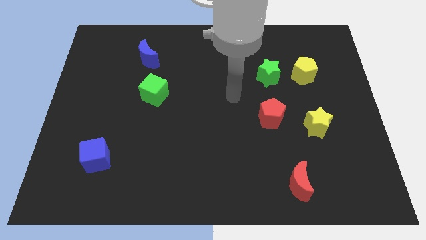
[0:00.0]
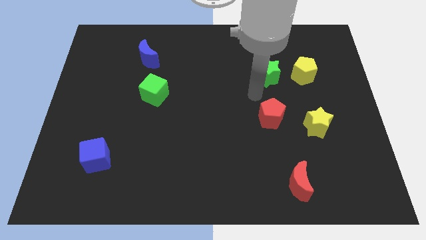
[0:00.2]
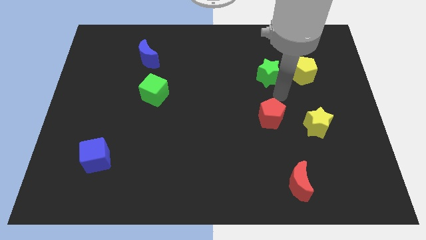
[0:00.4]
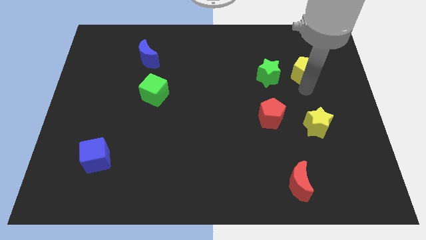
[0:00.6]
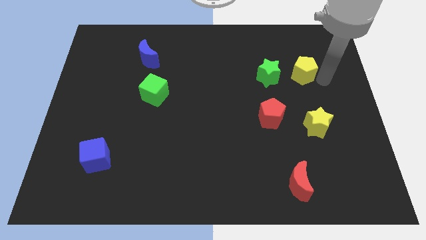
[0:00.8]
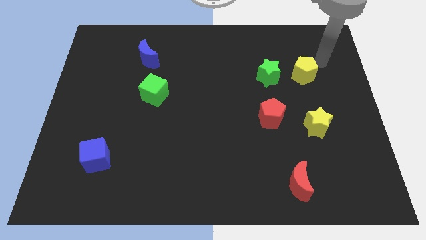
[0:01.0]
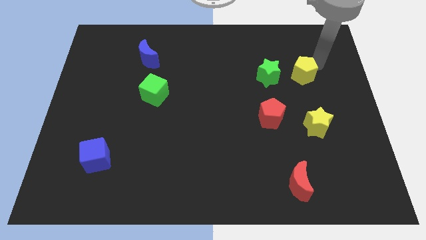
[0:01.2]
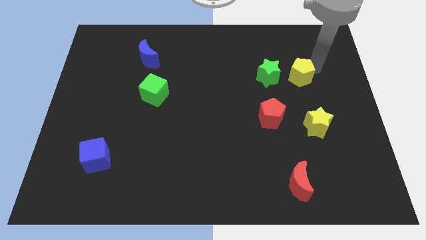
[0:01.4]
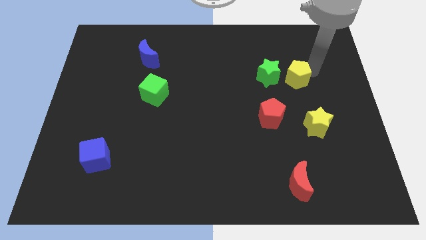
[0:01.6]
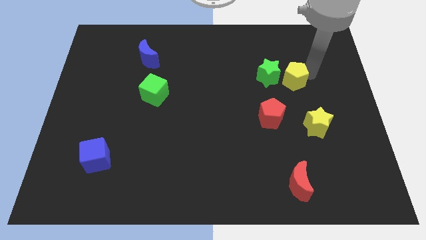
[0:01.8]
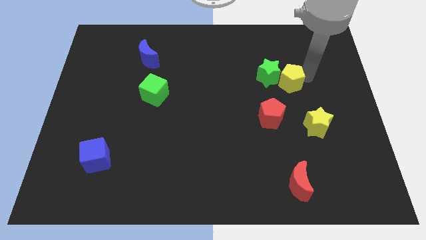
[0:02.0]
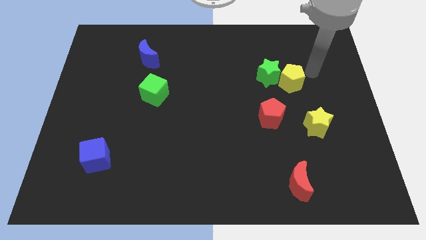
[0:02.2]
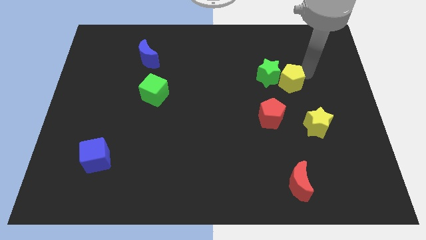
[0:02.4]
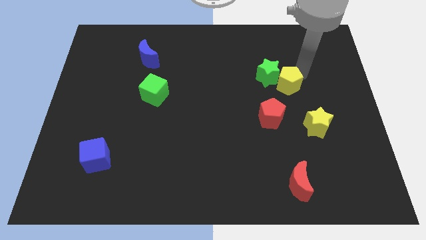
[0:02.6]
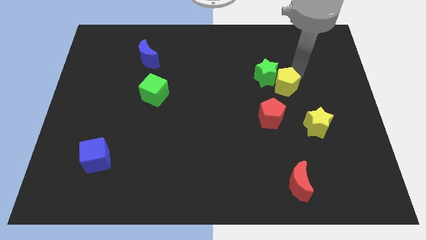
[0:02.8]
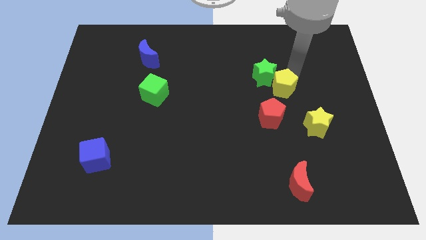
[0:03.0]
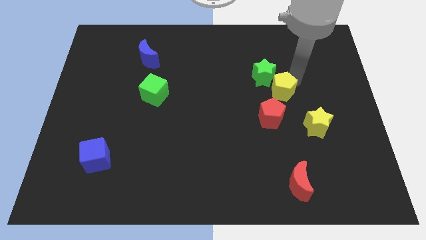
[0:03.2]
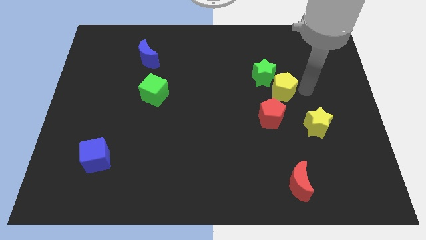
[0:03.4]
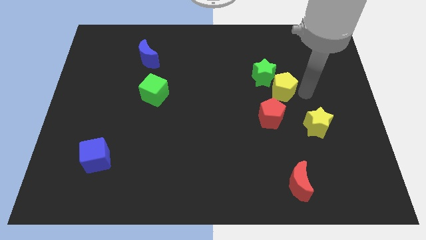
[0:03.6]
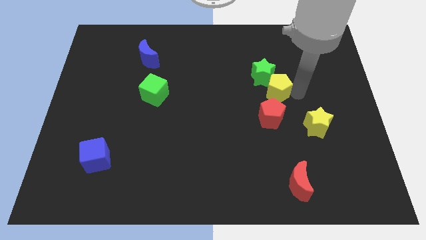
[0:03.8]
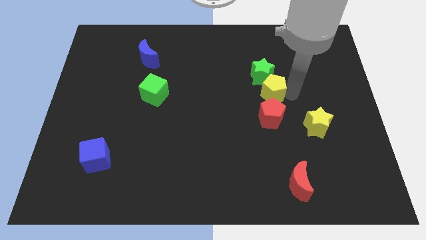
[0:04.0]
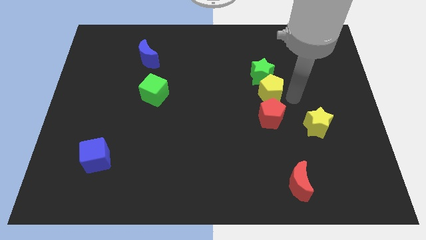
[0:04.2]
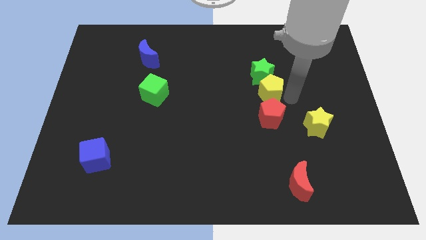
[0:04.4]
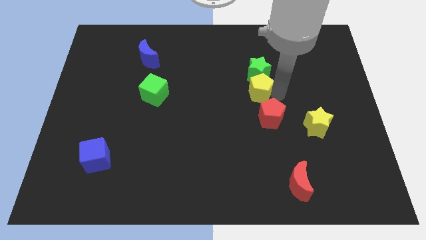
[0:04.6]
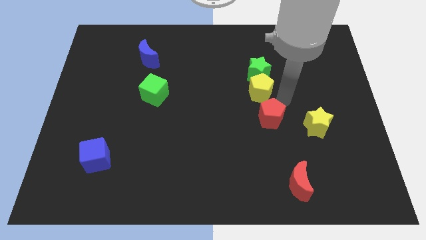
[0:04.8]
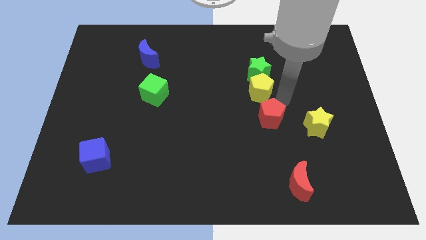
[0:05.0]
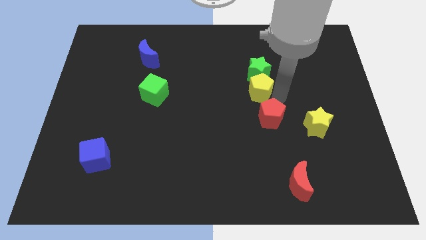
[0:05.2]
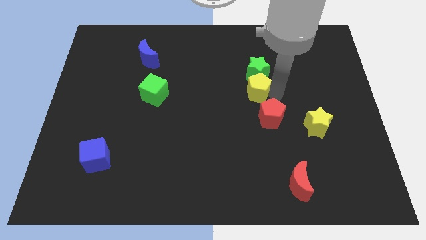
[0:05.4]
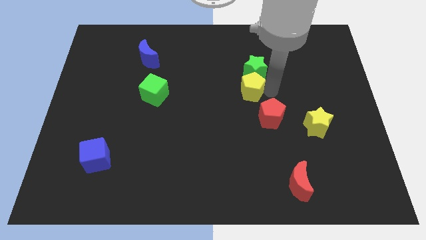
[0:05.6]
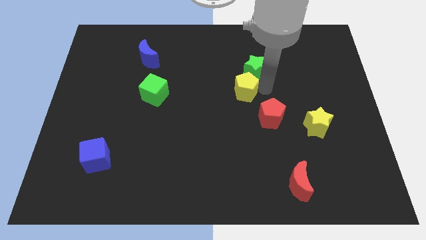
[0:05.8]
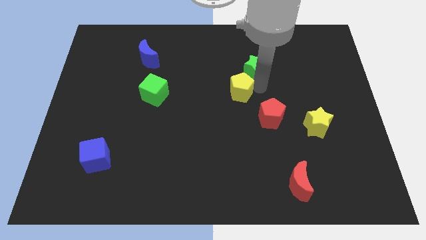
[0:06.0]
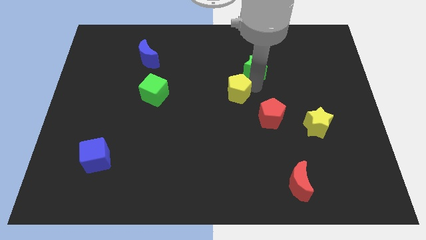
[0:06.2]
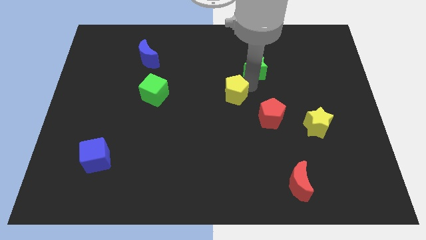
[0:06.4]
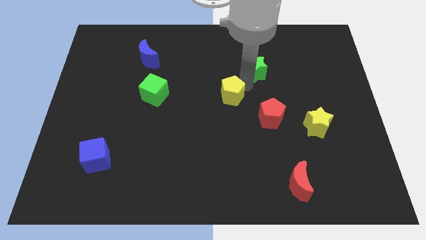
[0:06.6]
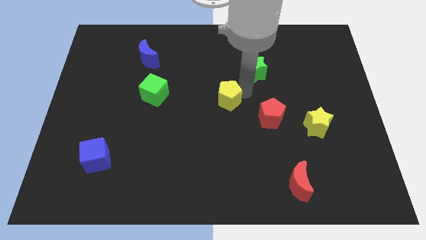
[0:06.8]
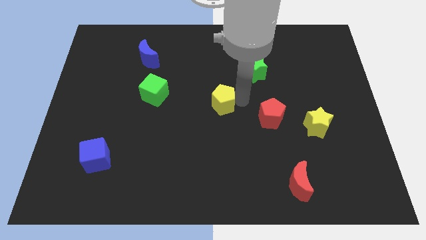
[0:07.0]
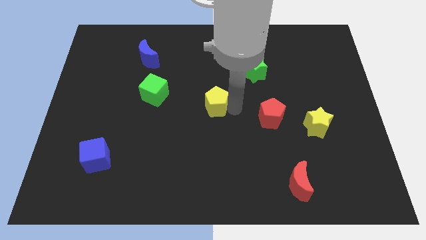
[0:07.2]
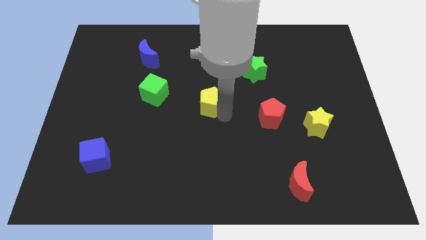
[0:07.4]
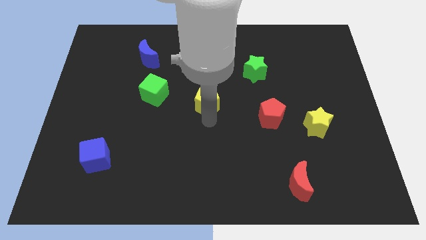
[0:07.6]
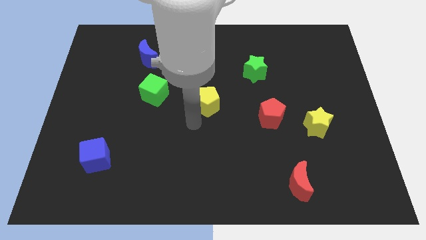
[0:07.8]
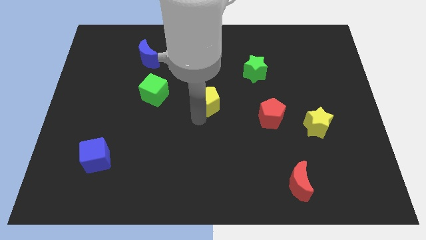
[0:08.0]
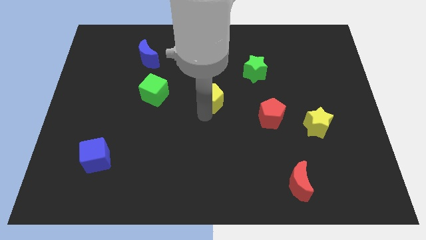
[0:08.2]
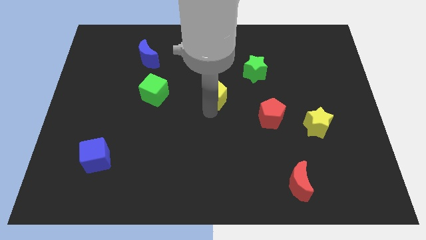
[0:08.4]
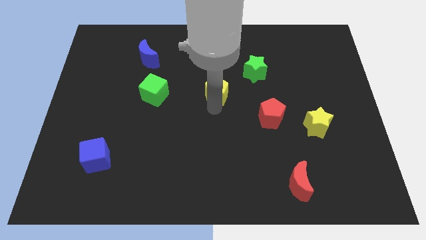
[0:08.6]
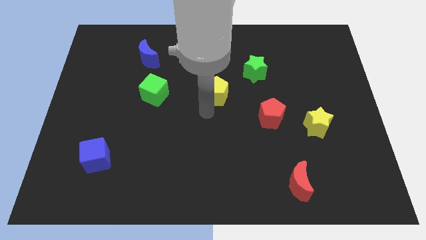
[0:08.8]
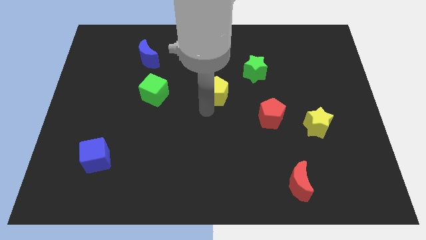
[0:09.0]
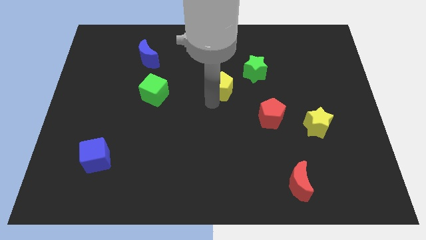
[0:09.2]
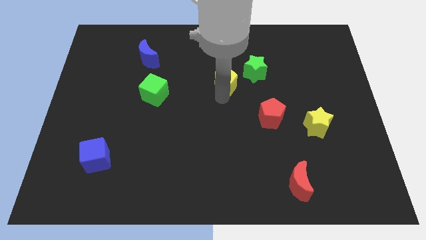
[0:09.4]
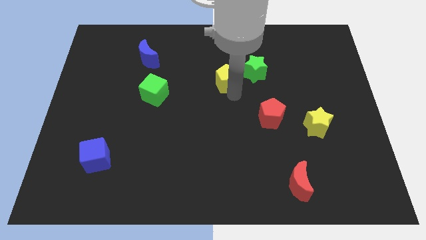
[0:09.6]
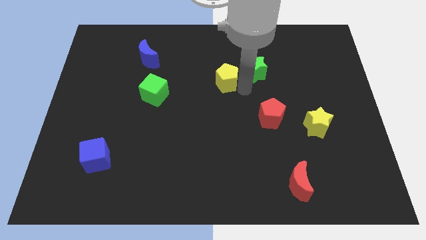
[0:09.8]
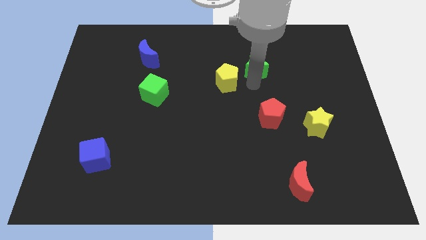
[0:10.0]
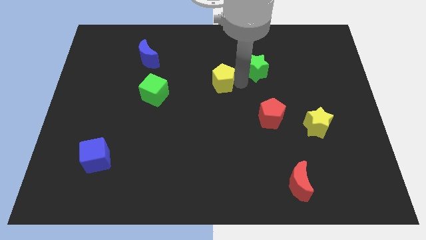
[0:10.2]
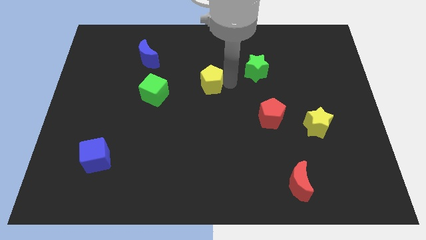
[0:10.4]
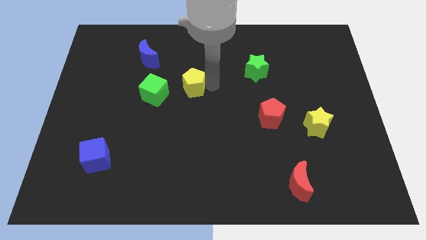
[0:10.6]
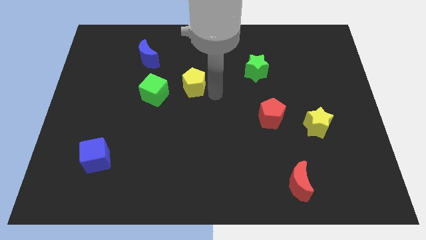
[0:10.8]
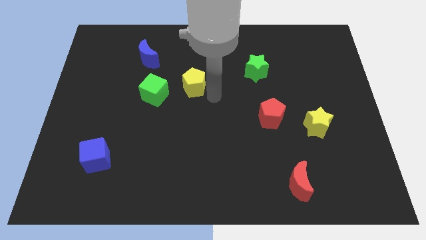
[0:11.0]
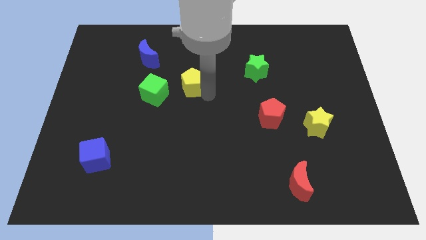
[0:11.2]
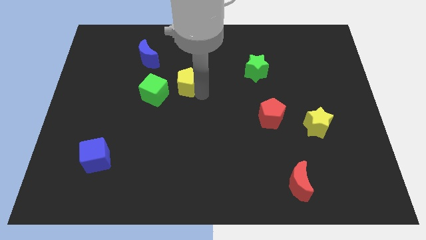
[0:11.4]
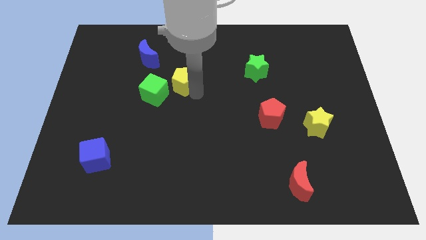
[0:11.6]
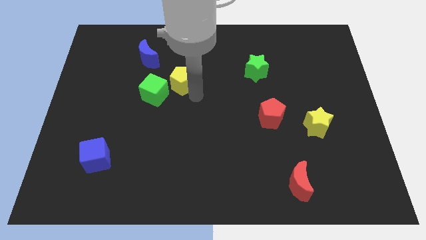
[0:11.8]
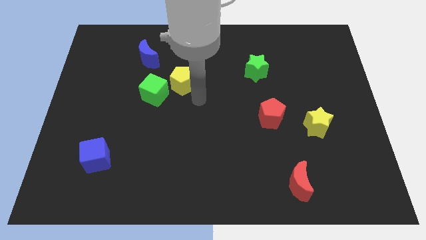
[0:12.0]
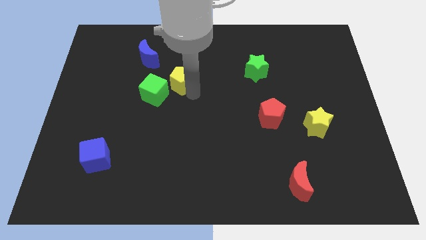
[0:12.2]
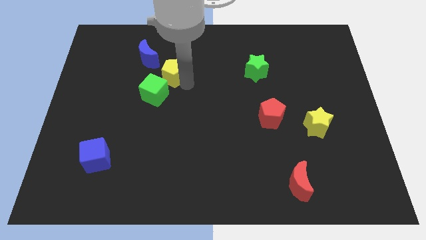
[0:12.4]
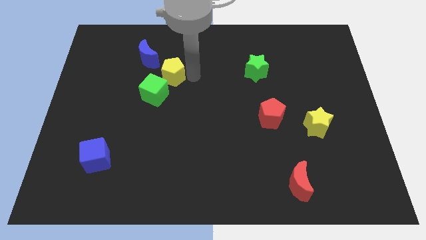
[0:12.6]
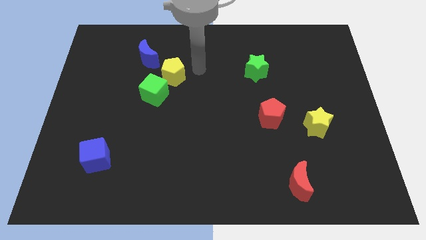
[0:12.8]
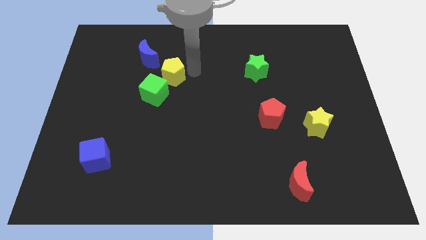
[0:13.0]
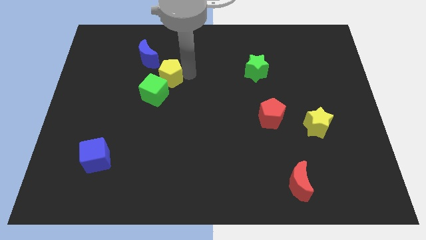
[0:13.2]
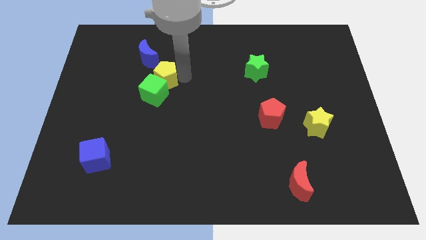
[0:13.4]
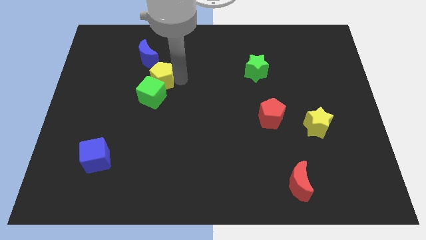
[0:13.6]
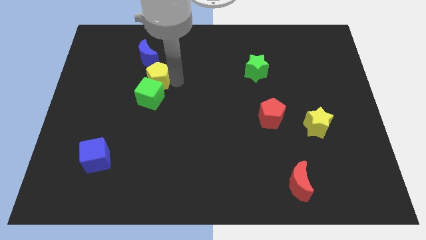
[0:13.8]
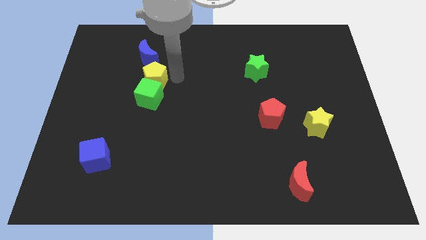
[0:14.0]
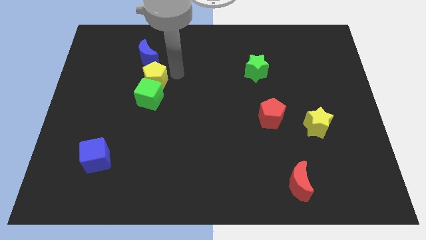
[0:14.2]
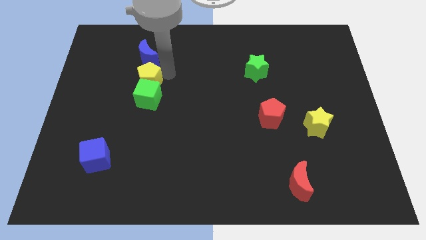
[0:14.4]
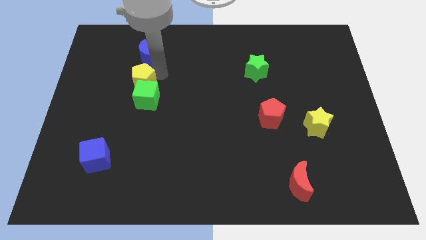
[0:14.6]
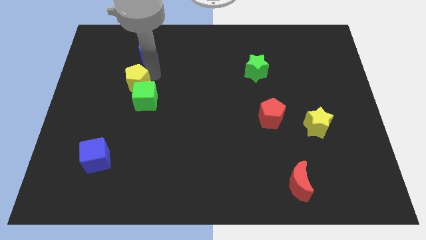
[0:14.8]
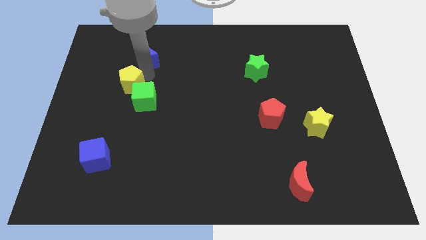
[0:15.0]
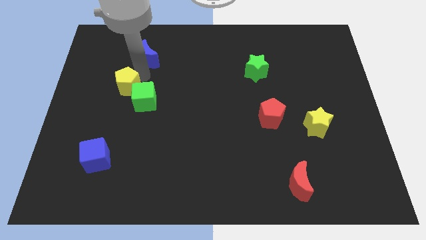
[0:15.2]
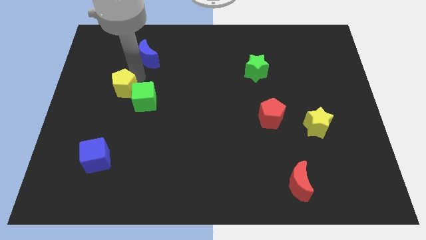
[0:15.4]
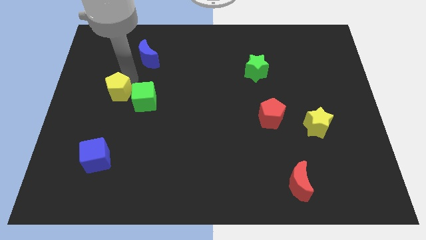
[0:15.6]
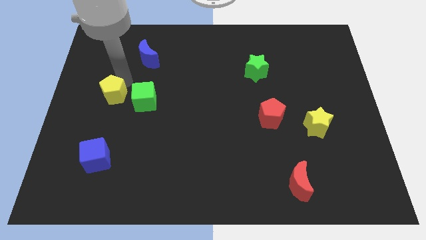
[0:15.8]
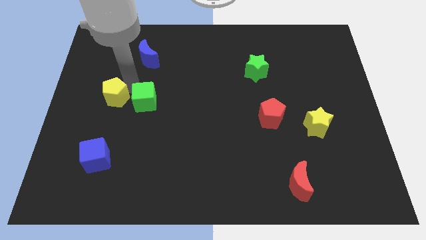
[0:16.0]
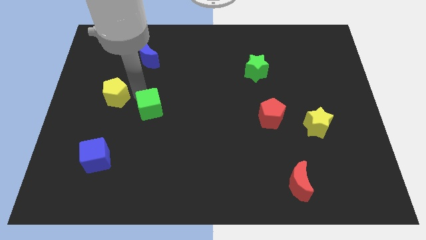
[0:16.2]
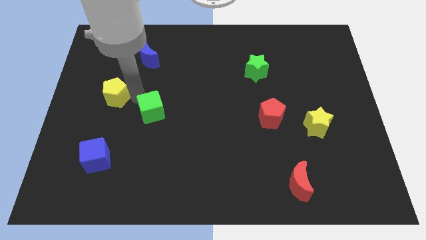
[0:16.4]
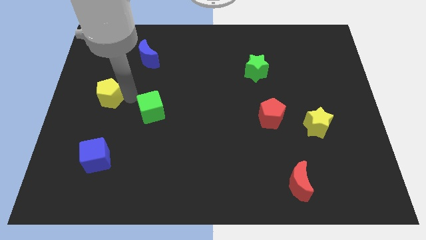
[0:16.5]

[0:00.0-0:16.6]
push the yellow pentagon to the left side of the board
